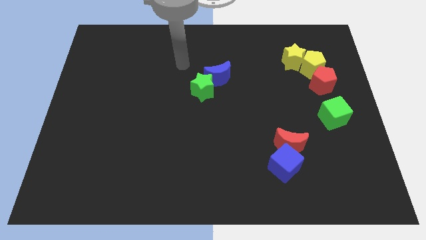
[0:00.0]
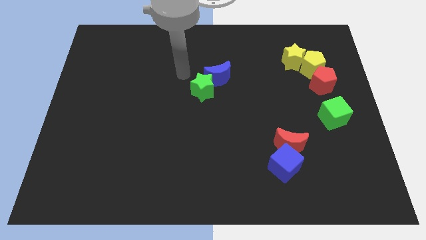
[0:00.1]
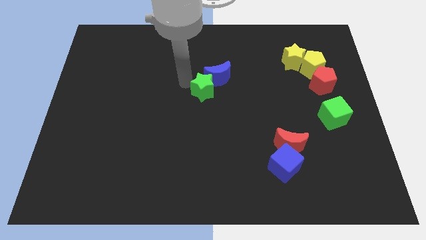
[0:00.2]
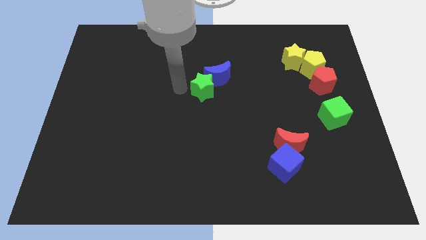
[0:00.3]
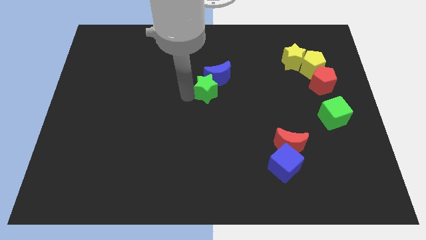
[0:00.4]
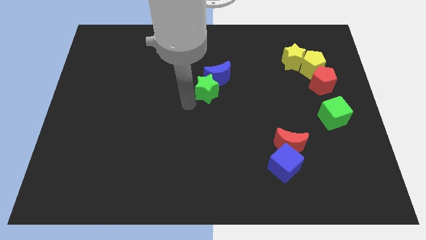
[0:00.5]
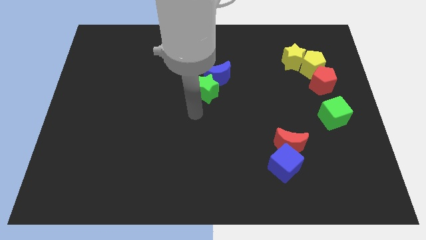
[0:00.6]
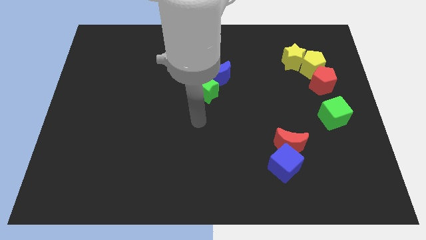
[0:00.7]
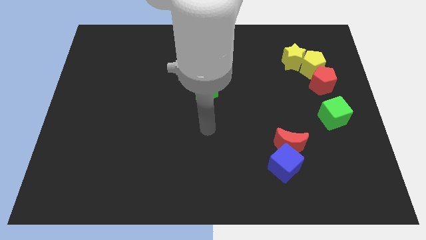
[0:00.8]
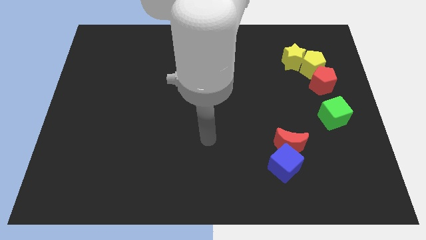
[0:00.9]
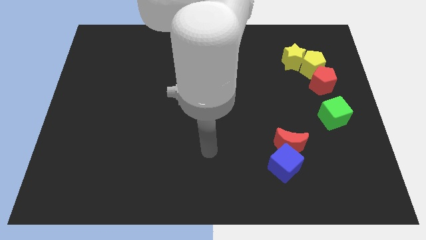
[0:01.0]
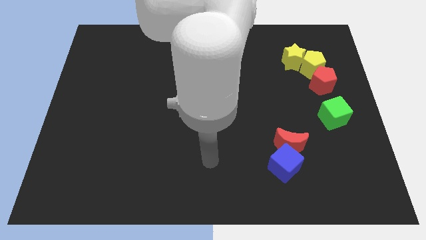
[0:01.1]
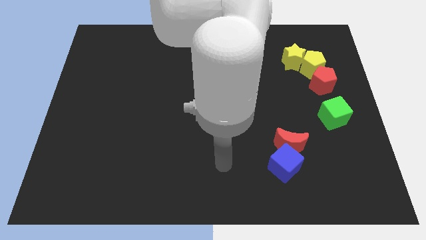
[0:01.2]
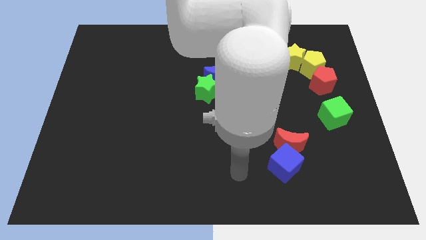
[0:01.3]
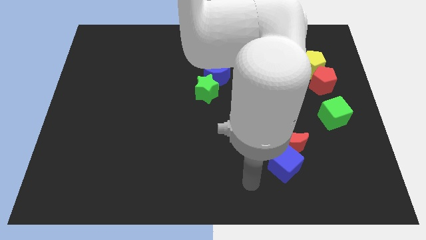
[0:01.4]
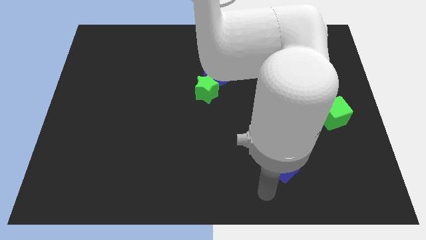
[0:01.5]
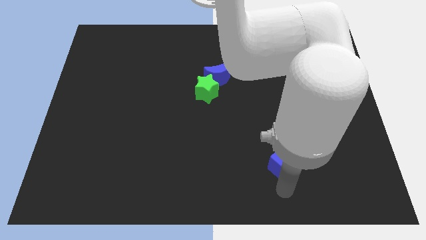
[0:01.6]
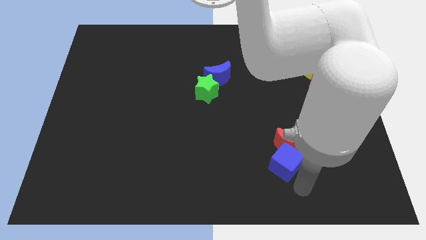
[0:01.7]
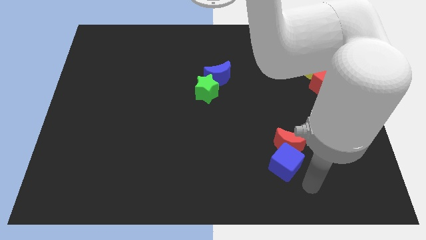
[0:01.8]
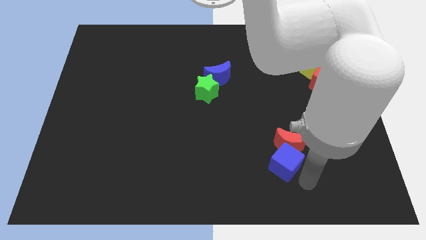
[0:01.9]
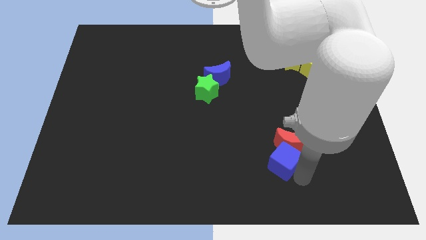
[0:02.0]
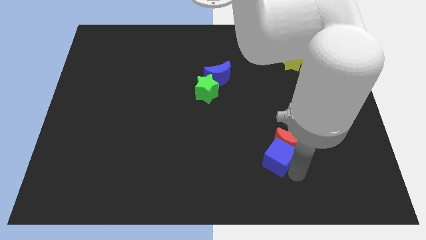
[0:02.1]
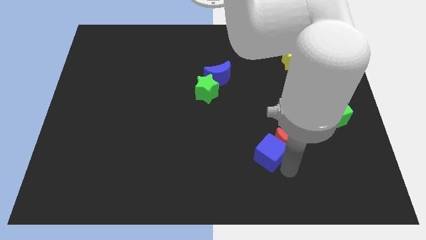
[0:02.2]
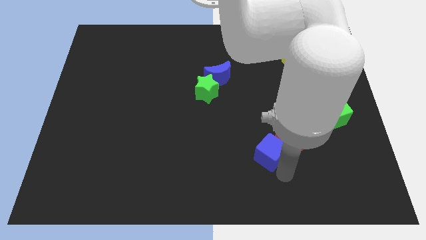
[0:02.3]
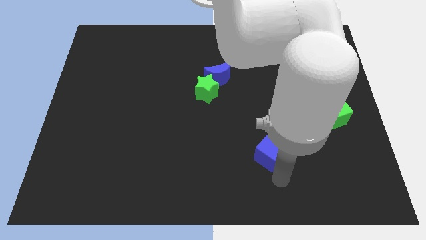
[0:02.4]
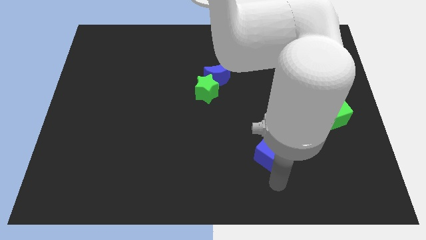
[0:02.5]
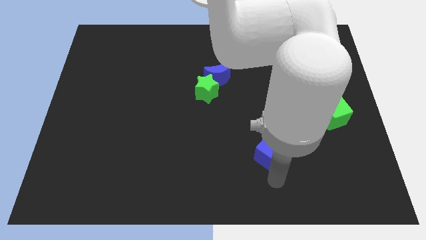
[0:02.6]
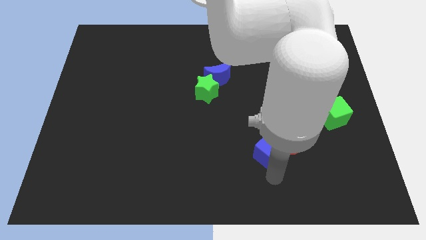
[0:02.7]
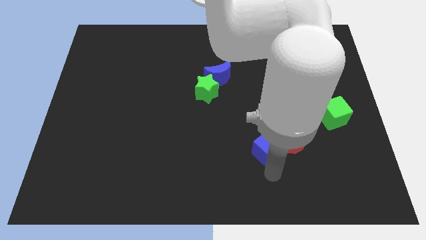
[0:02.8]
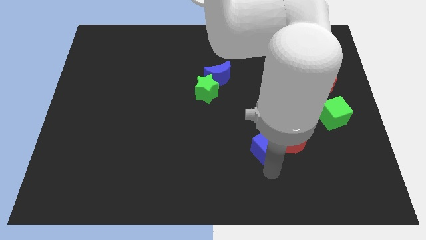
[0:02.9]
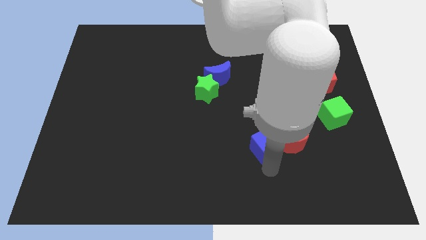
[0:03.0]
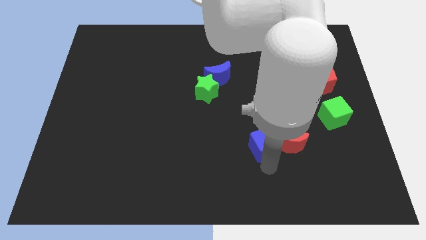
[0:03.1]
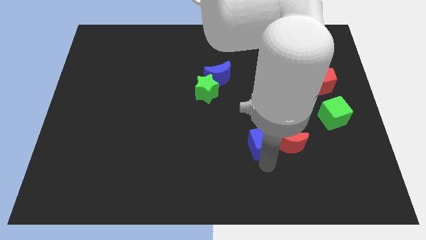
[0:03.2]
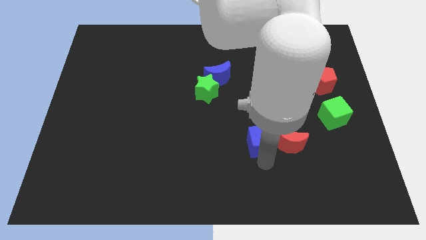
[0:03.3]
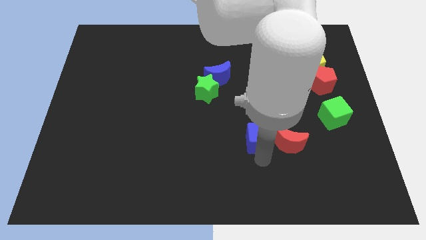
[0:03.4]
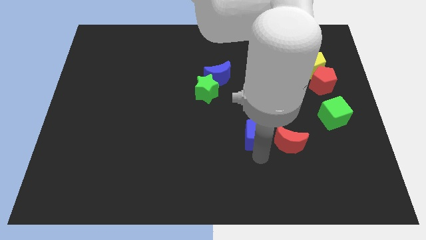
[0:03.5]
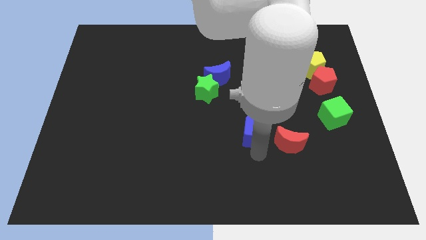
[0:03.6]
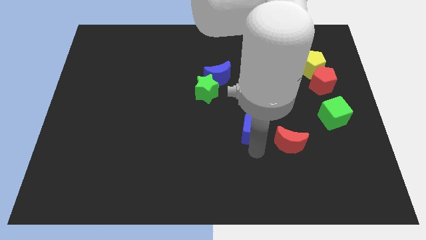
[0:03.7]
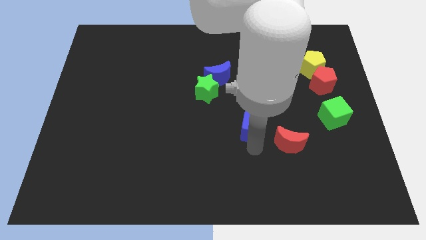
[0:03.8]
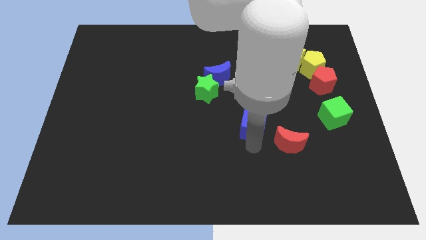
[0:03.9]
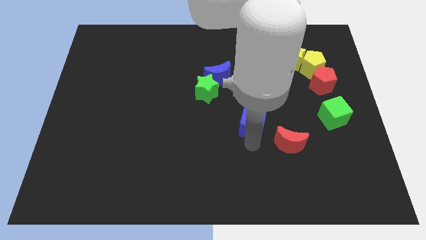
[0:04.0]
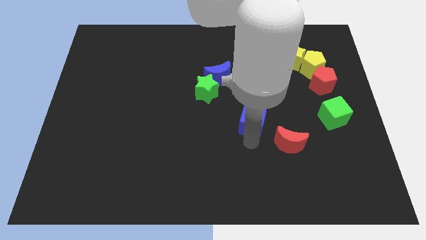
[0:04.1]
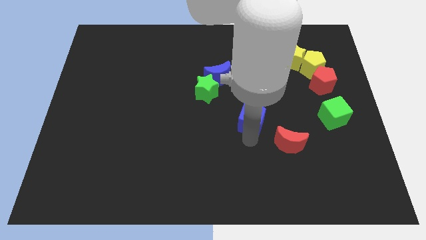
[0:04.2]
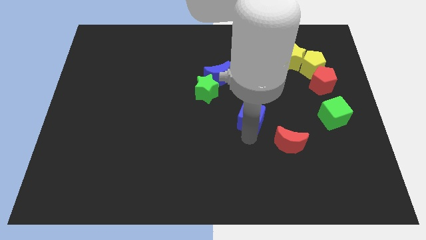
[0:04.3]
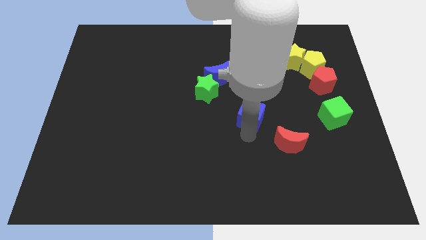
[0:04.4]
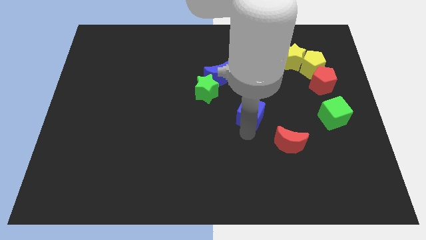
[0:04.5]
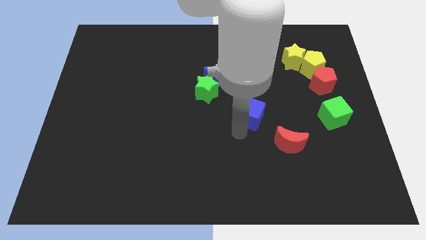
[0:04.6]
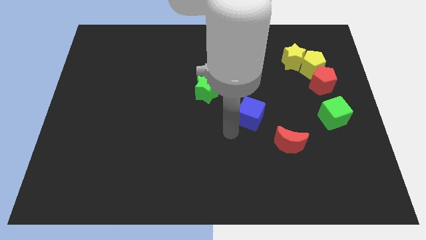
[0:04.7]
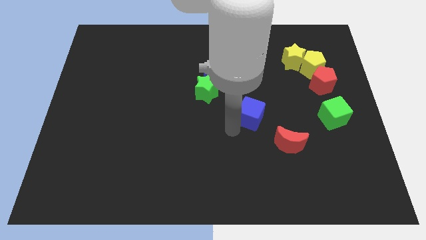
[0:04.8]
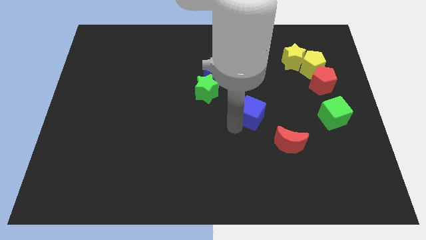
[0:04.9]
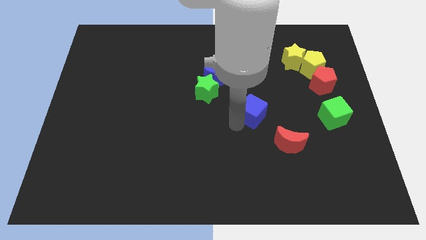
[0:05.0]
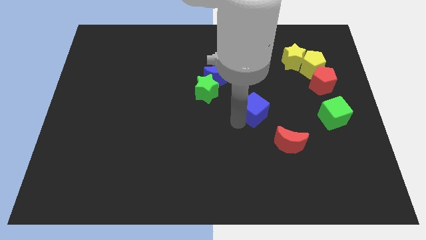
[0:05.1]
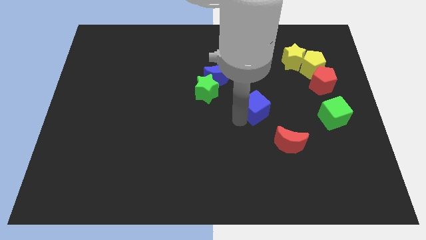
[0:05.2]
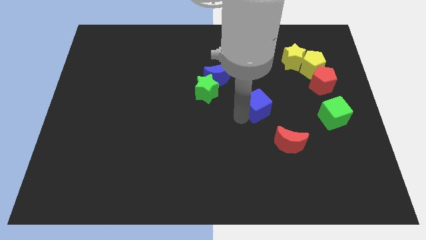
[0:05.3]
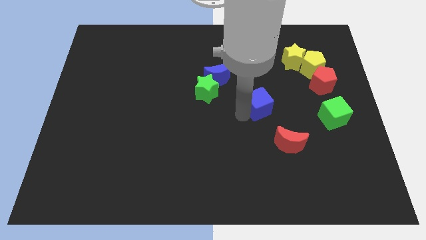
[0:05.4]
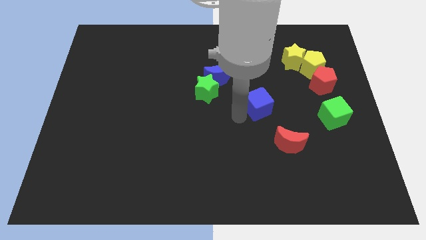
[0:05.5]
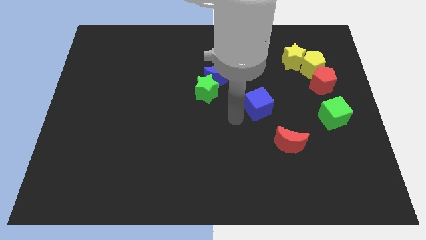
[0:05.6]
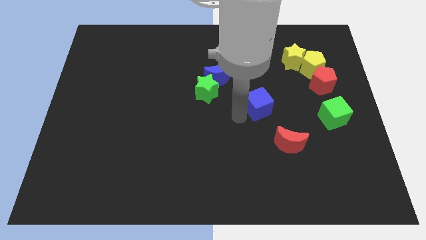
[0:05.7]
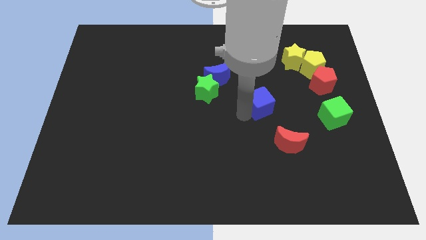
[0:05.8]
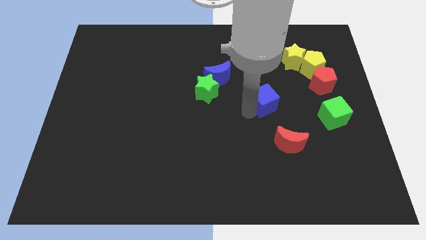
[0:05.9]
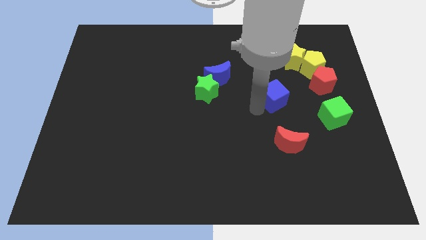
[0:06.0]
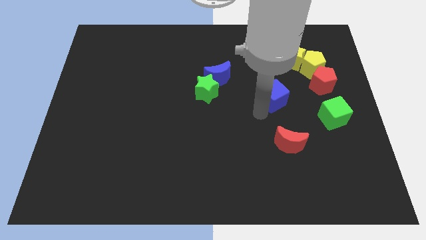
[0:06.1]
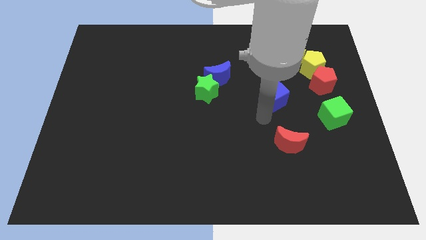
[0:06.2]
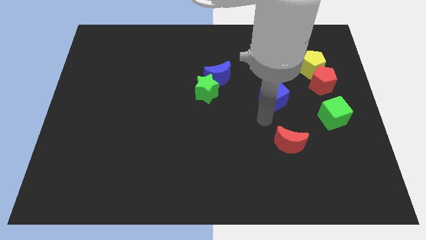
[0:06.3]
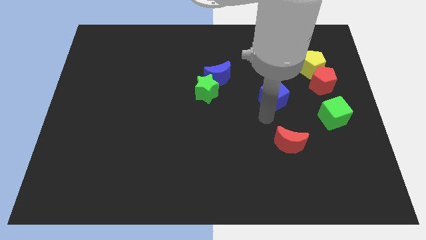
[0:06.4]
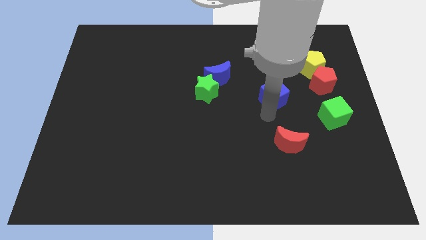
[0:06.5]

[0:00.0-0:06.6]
move the blue cube just left of the red pentagon

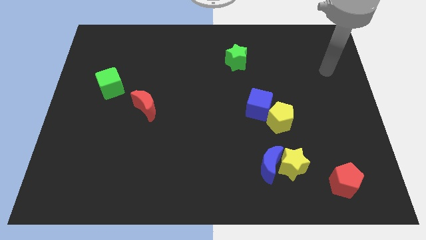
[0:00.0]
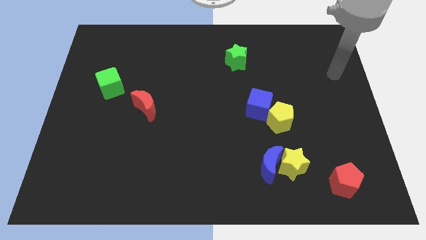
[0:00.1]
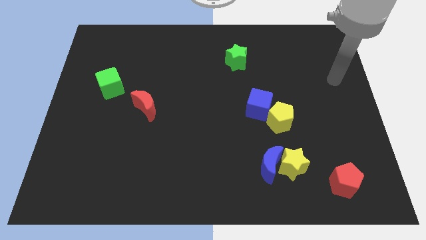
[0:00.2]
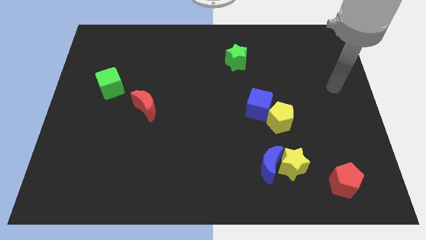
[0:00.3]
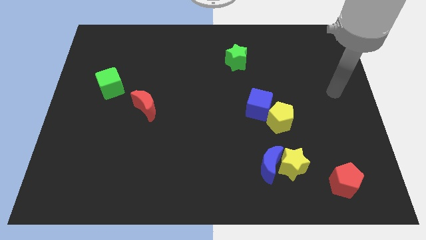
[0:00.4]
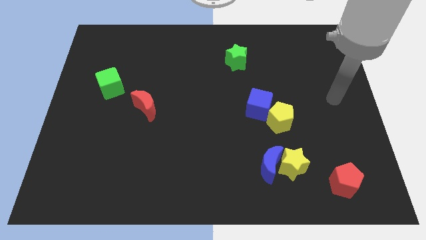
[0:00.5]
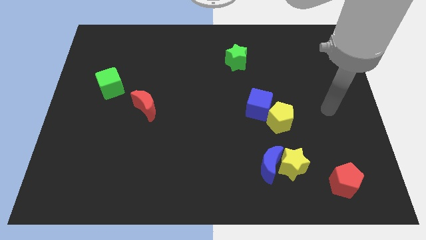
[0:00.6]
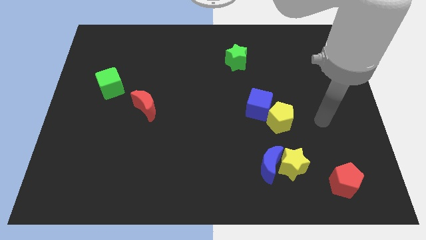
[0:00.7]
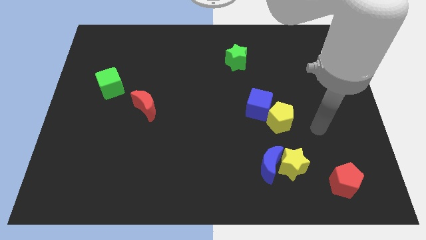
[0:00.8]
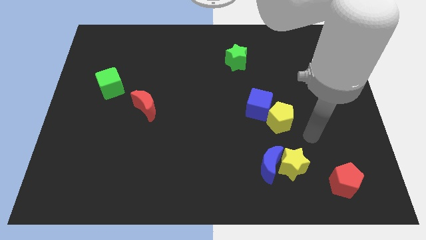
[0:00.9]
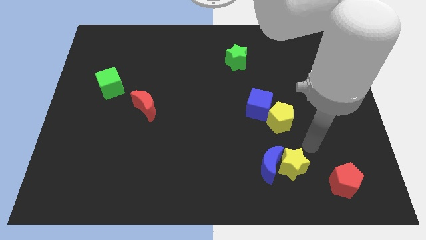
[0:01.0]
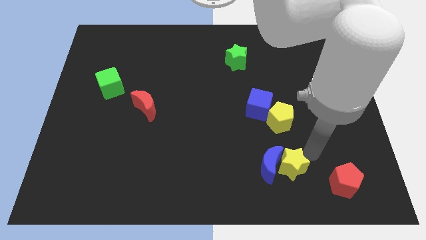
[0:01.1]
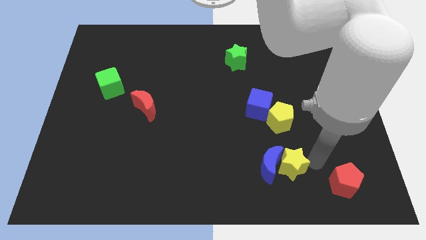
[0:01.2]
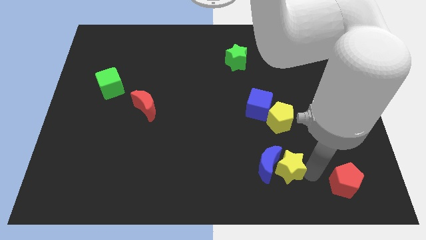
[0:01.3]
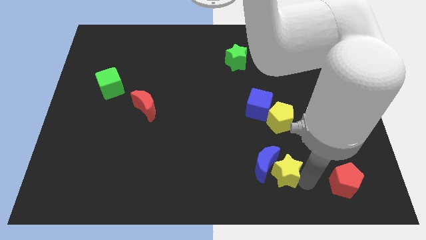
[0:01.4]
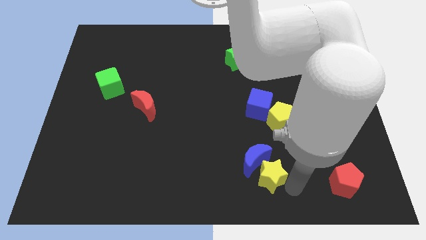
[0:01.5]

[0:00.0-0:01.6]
put the blue moon to the bottom left of the yellow pentagon
